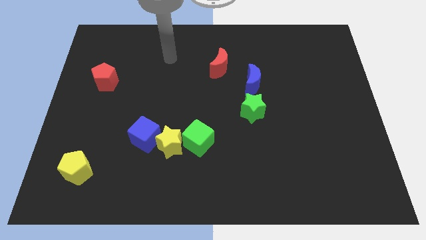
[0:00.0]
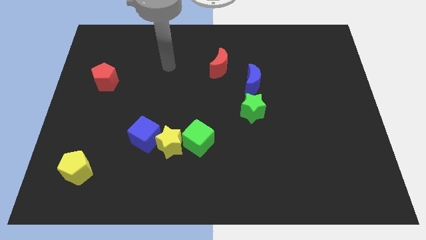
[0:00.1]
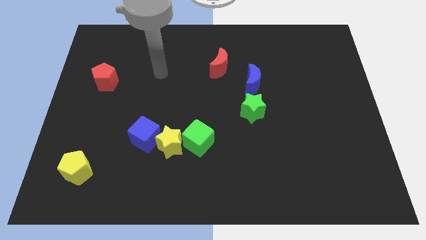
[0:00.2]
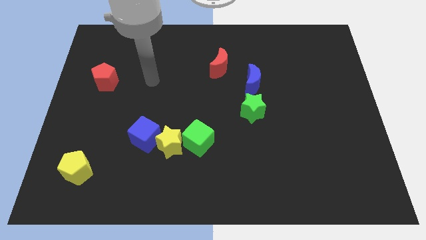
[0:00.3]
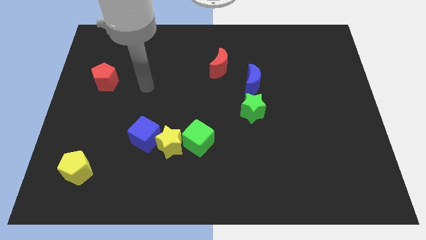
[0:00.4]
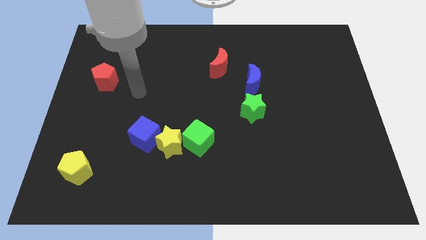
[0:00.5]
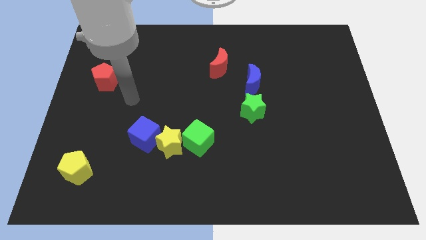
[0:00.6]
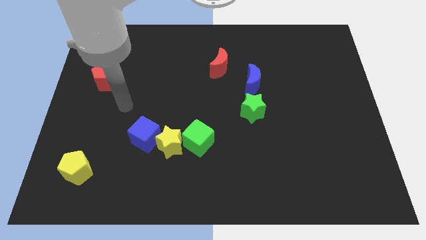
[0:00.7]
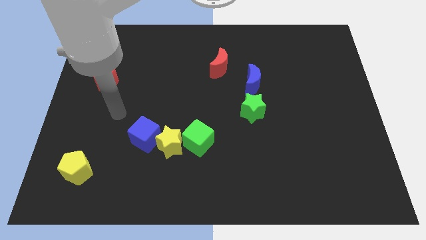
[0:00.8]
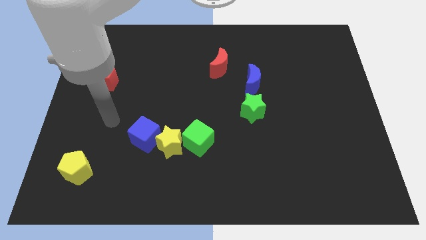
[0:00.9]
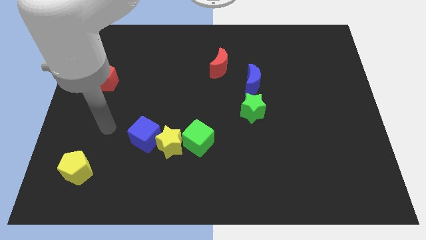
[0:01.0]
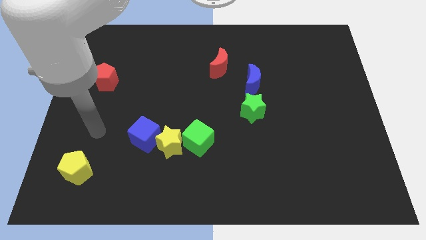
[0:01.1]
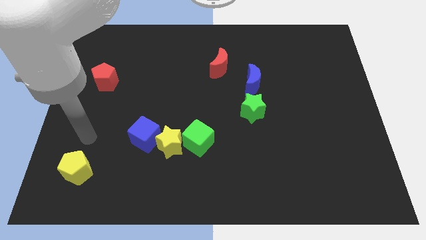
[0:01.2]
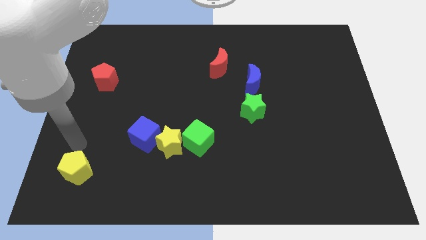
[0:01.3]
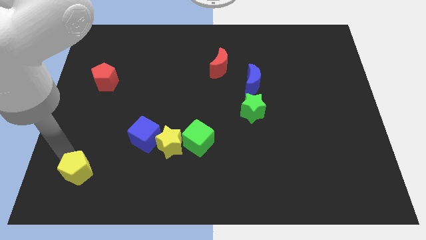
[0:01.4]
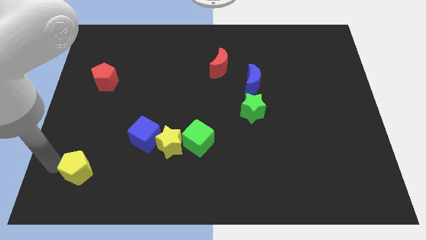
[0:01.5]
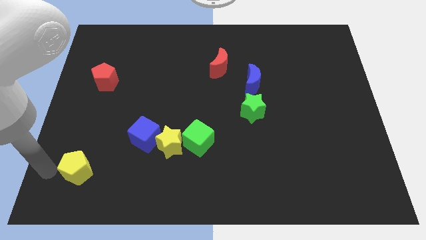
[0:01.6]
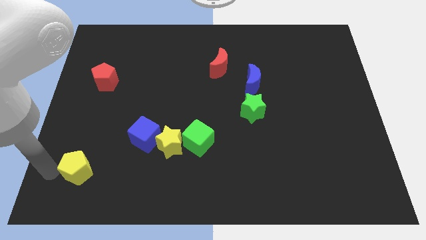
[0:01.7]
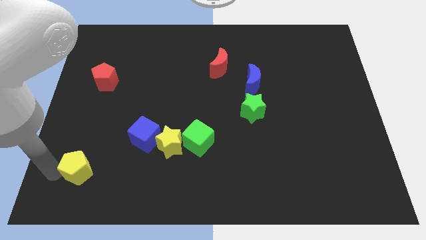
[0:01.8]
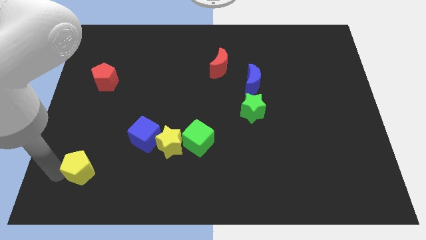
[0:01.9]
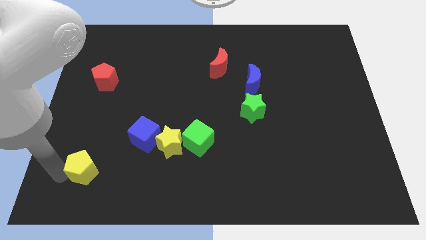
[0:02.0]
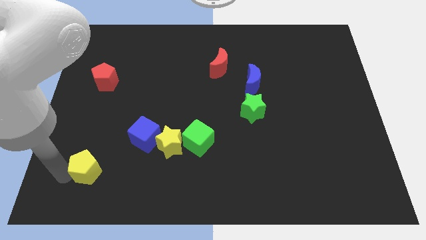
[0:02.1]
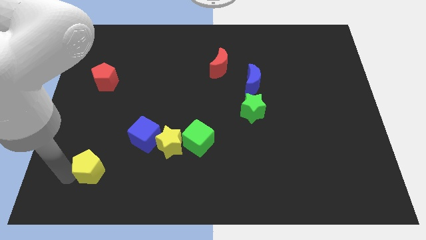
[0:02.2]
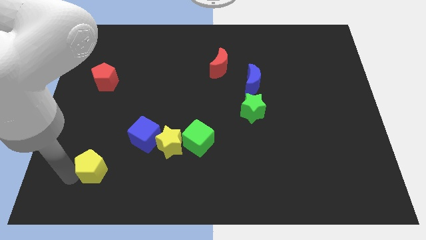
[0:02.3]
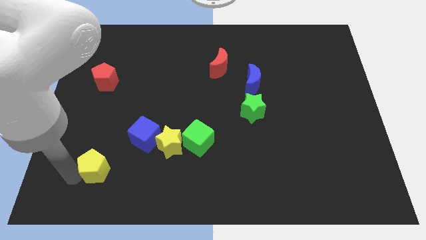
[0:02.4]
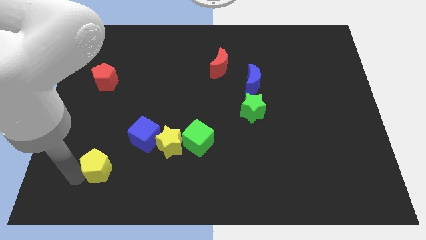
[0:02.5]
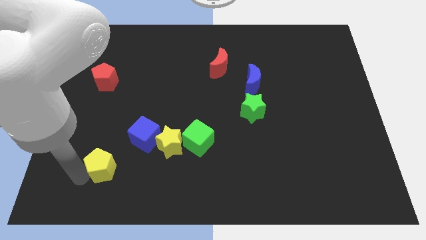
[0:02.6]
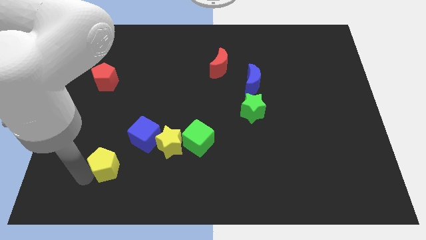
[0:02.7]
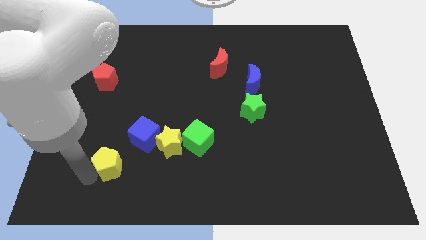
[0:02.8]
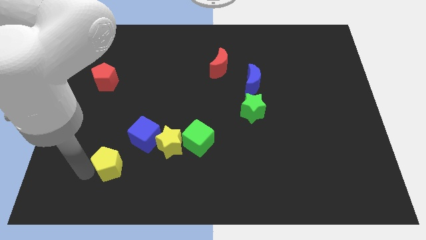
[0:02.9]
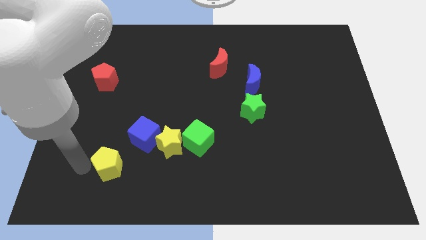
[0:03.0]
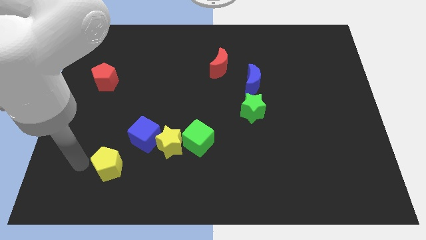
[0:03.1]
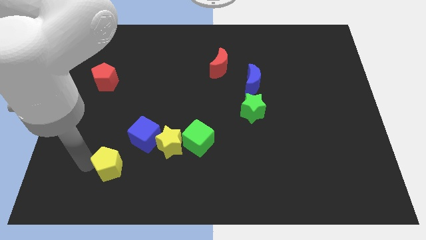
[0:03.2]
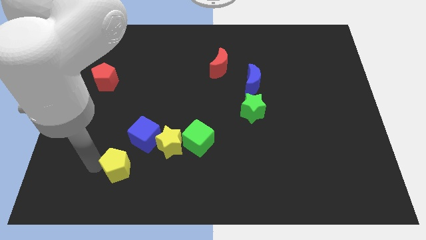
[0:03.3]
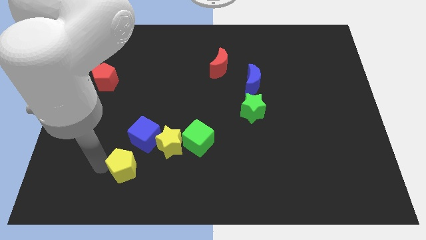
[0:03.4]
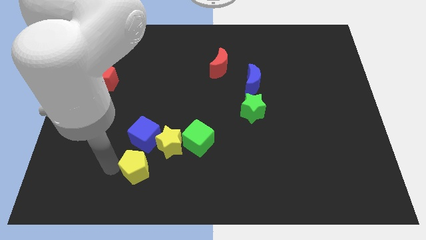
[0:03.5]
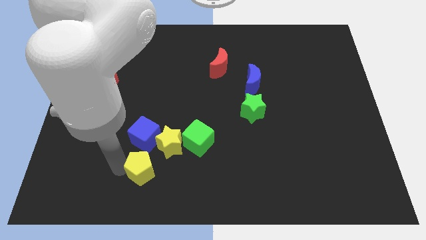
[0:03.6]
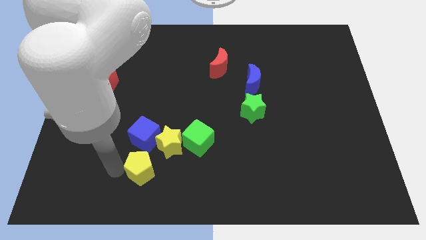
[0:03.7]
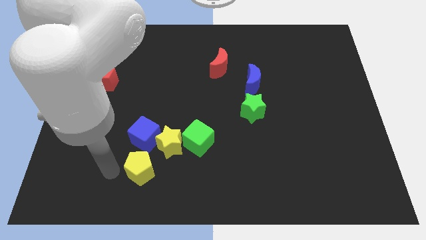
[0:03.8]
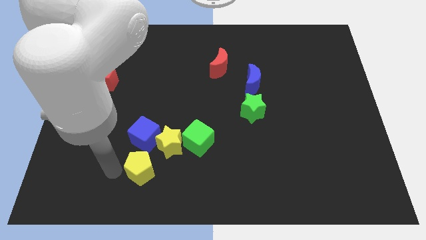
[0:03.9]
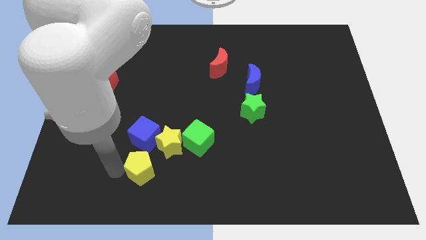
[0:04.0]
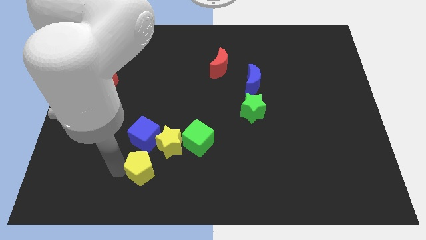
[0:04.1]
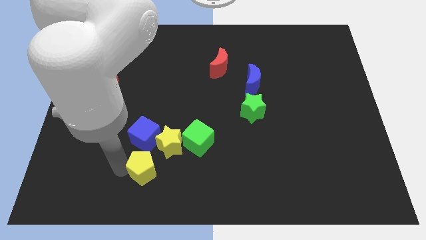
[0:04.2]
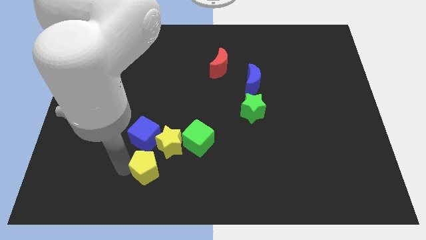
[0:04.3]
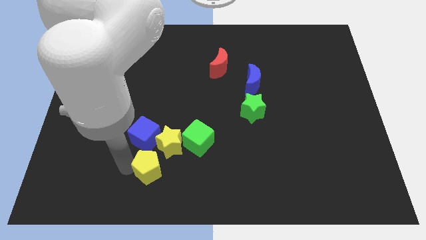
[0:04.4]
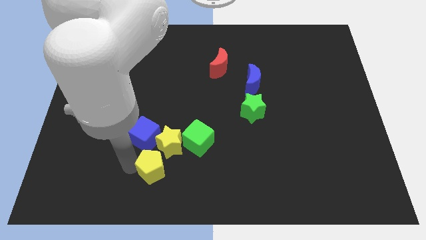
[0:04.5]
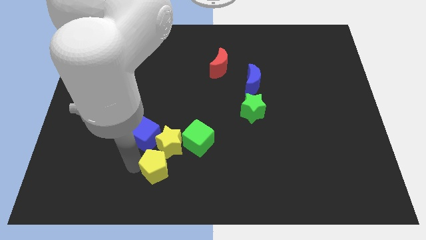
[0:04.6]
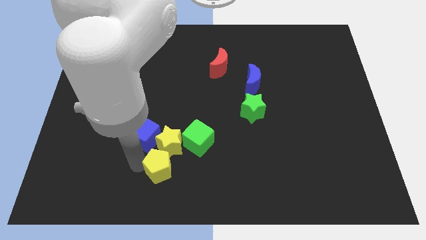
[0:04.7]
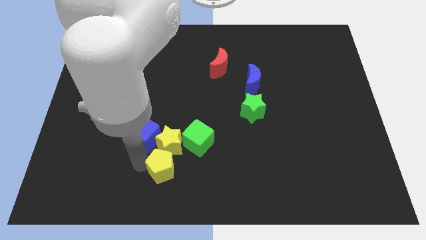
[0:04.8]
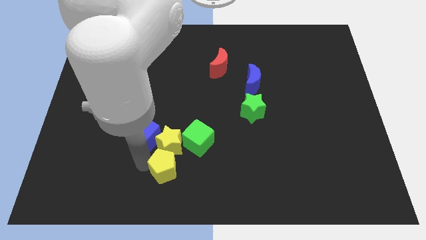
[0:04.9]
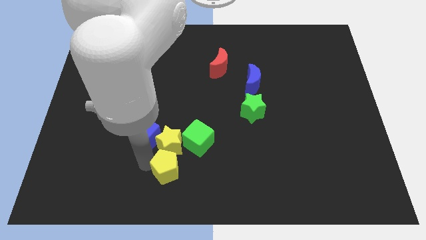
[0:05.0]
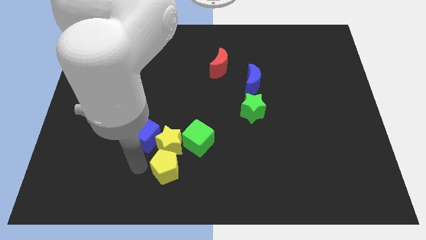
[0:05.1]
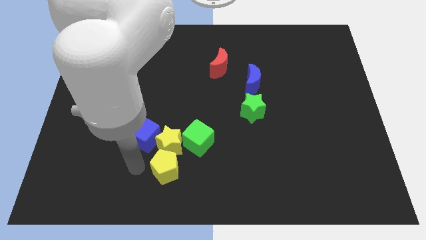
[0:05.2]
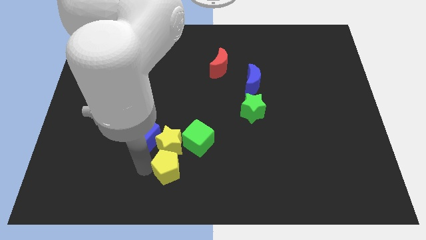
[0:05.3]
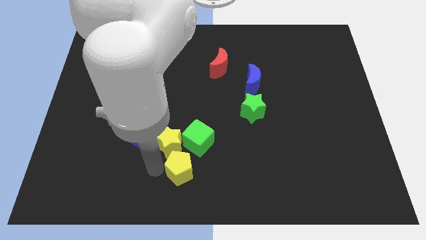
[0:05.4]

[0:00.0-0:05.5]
move the yellow pentagon right

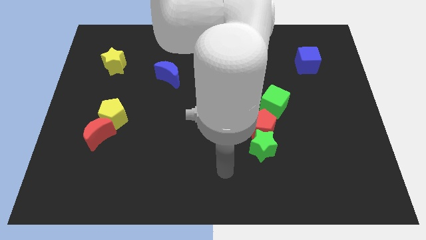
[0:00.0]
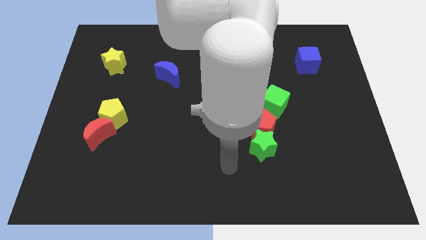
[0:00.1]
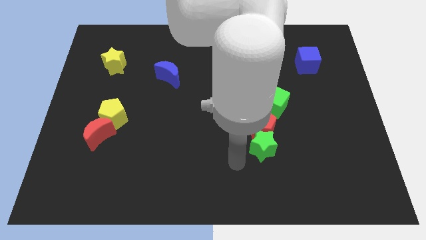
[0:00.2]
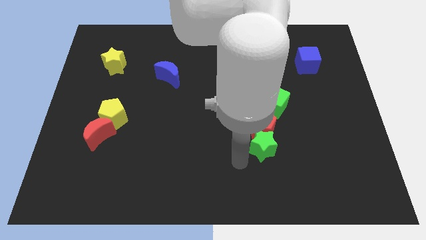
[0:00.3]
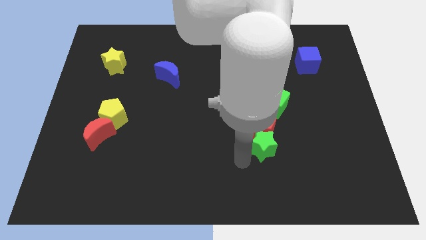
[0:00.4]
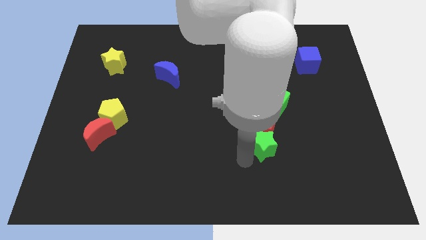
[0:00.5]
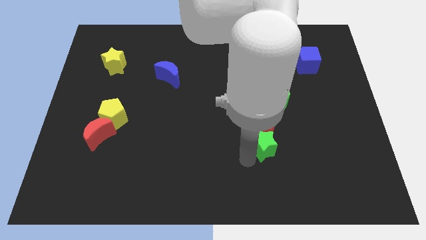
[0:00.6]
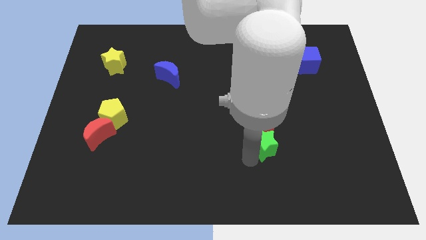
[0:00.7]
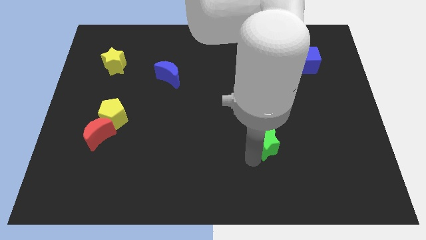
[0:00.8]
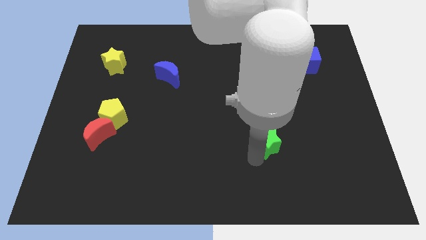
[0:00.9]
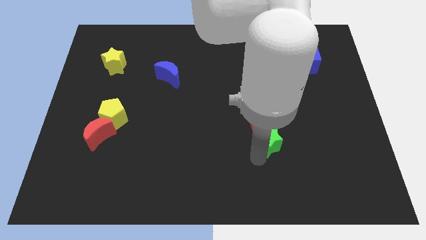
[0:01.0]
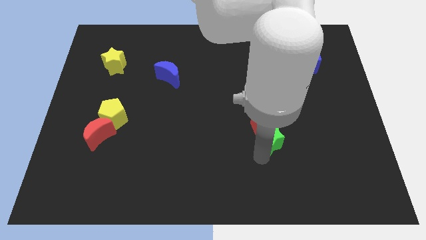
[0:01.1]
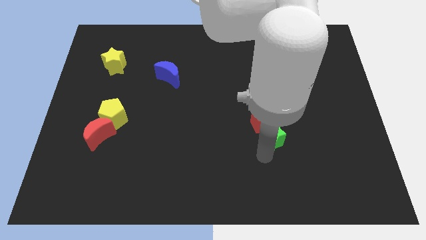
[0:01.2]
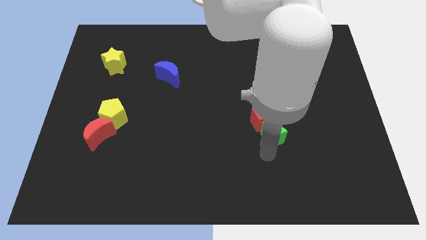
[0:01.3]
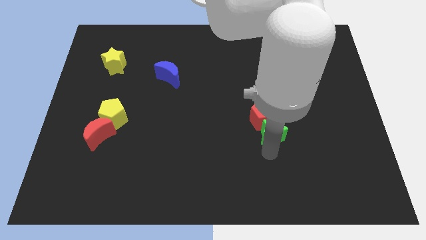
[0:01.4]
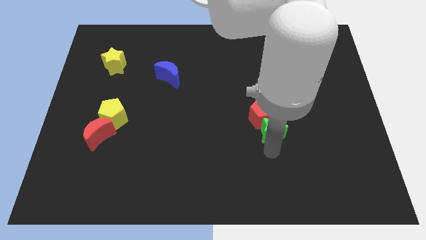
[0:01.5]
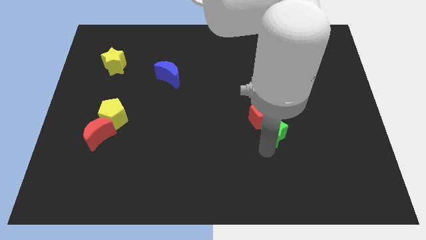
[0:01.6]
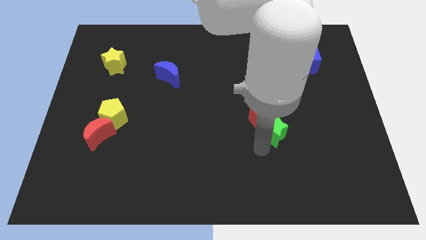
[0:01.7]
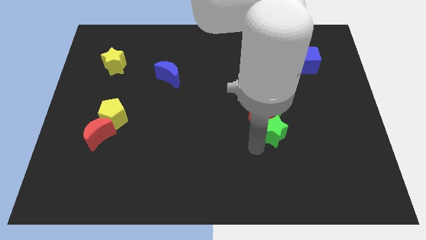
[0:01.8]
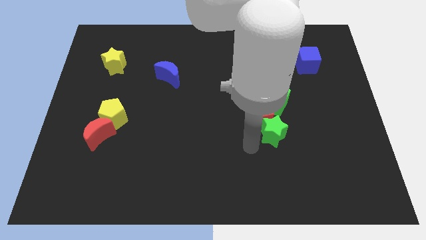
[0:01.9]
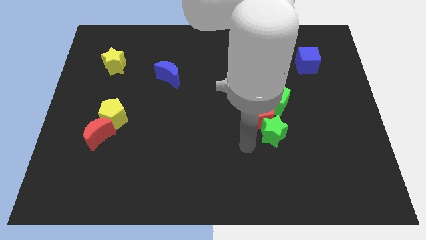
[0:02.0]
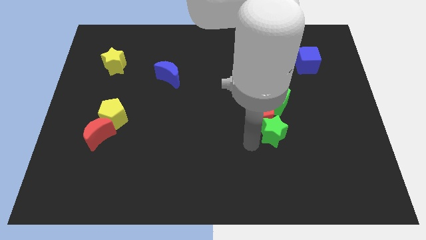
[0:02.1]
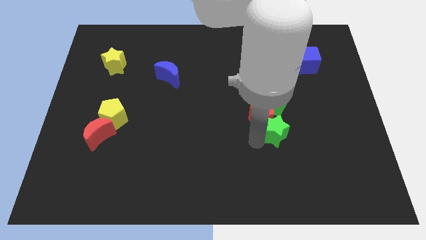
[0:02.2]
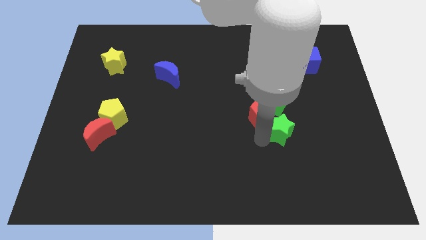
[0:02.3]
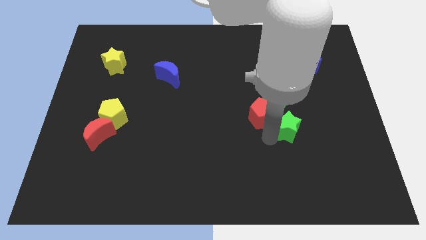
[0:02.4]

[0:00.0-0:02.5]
slightly push the green star up and to the right diagonally

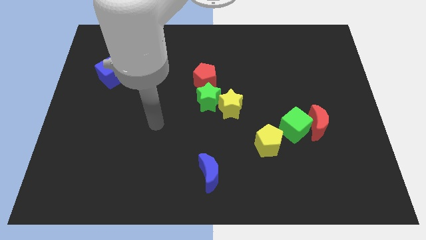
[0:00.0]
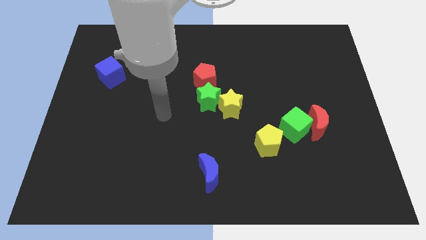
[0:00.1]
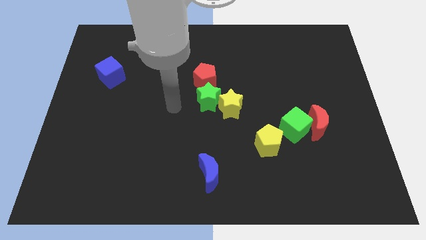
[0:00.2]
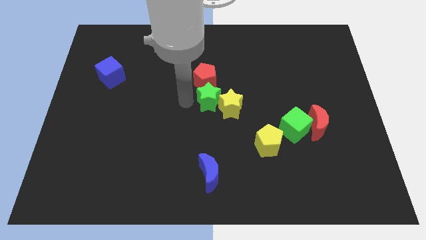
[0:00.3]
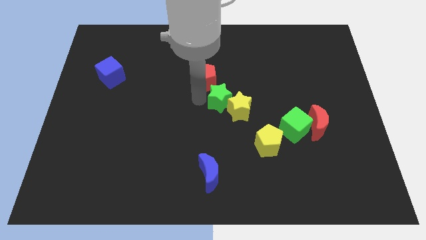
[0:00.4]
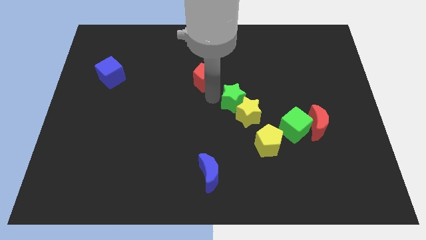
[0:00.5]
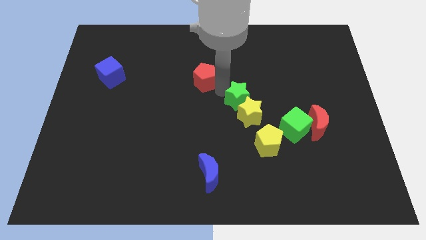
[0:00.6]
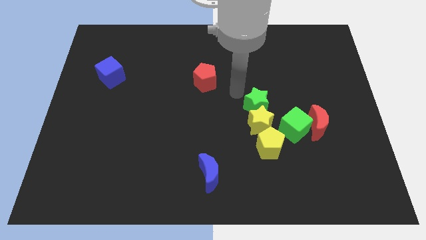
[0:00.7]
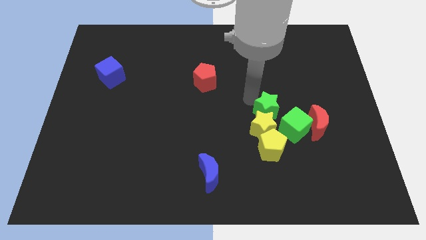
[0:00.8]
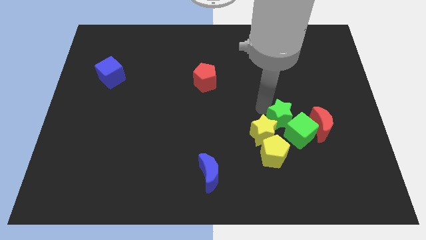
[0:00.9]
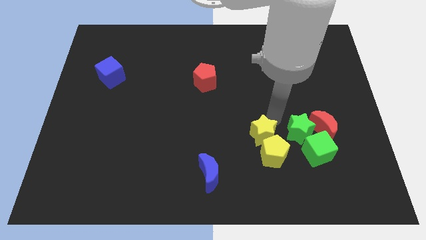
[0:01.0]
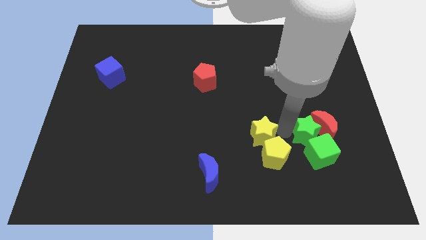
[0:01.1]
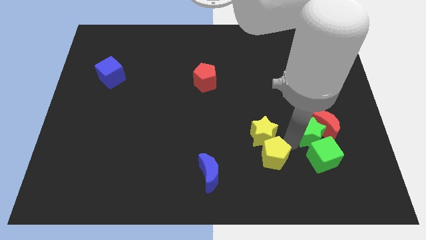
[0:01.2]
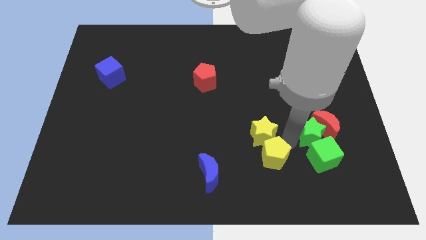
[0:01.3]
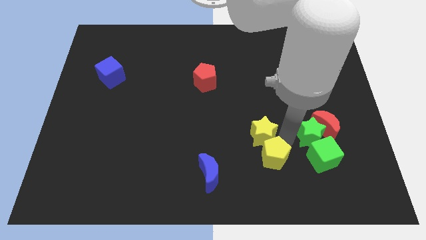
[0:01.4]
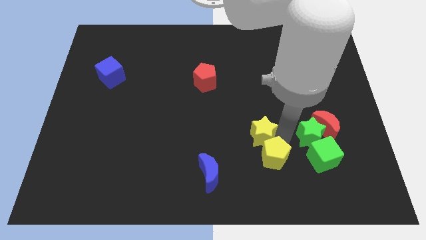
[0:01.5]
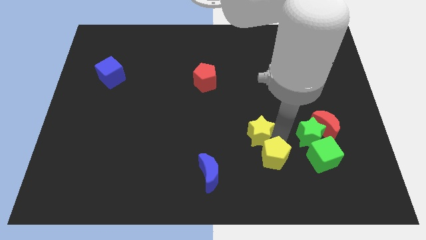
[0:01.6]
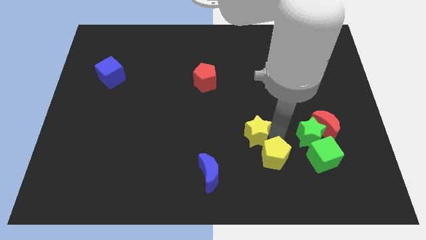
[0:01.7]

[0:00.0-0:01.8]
slide the yellow star slightly down
